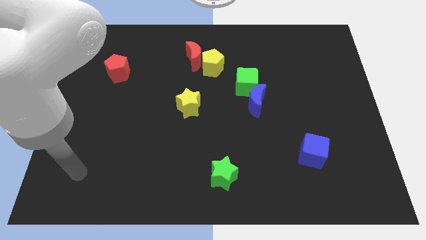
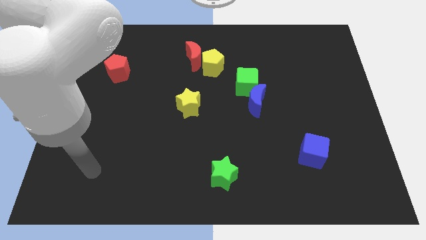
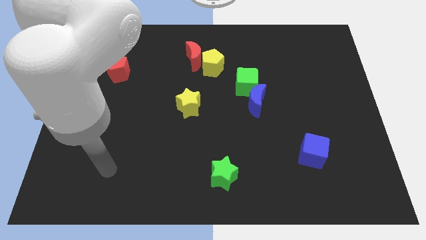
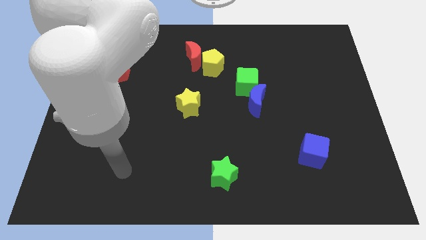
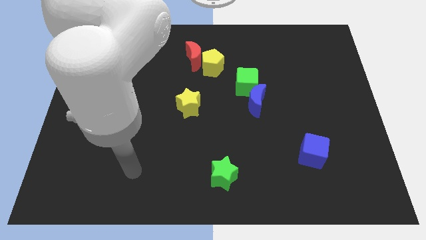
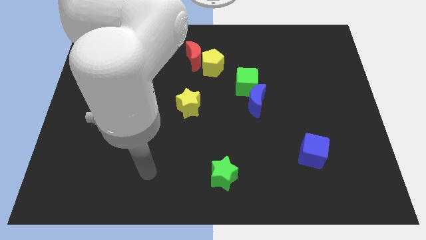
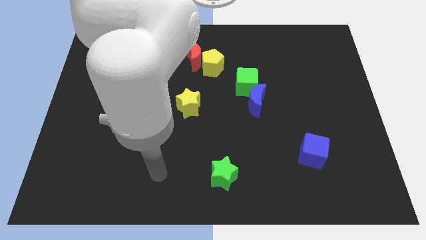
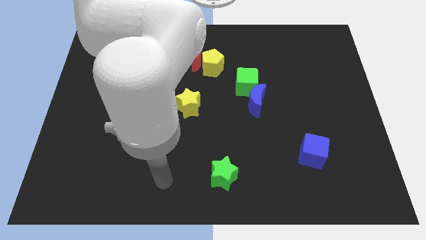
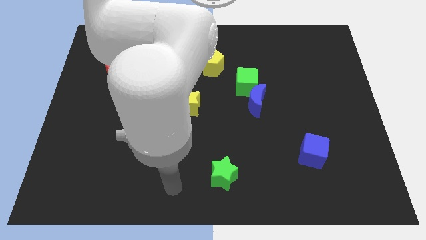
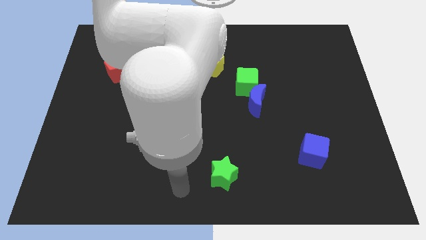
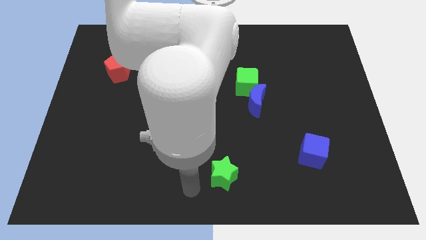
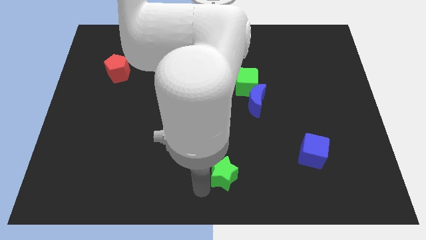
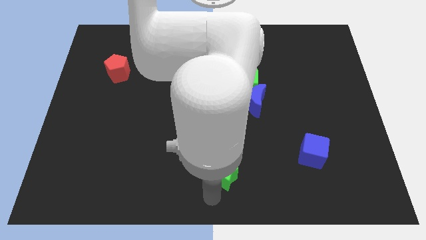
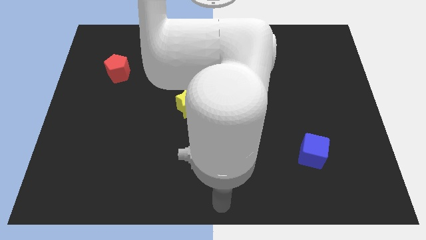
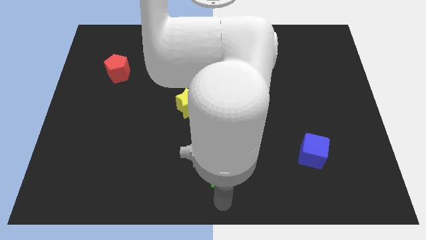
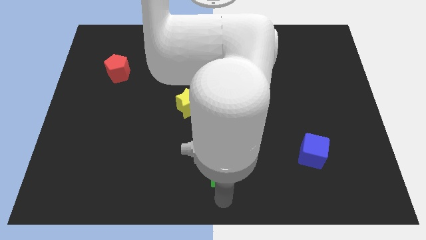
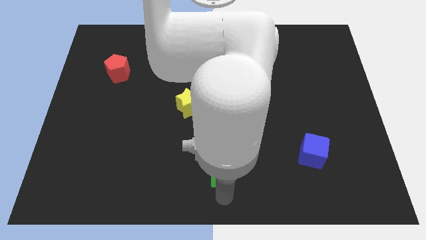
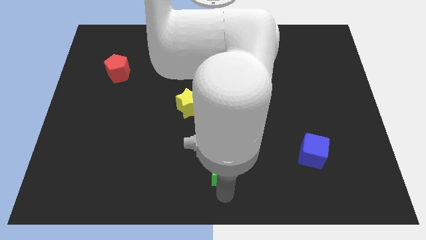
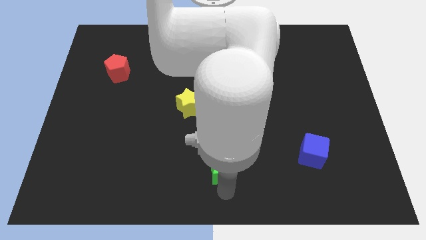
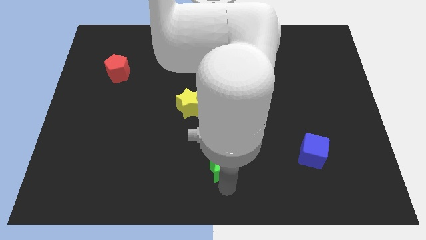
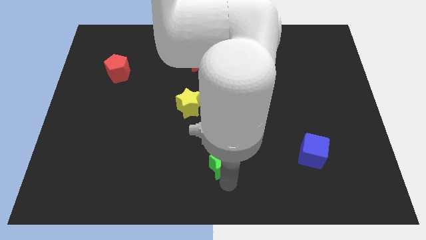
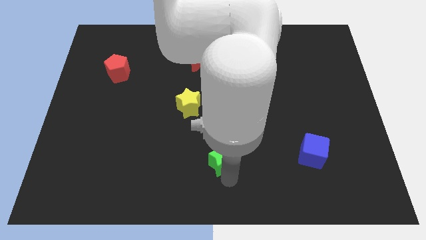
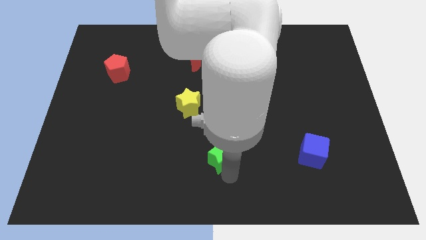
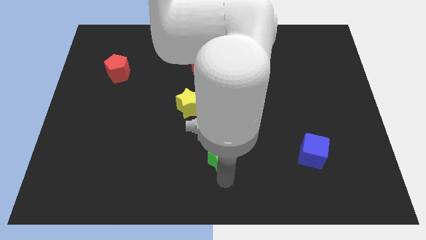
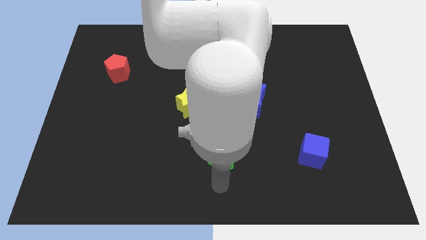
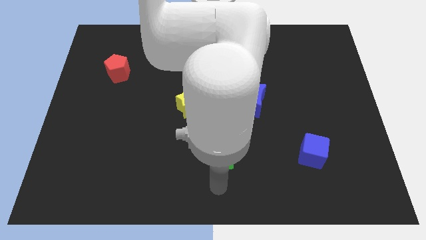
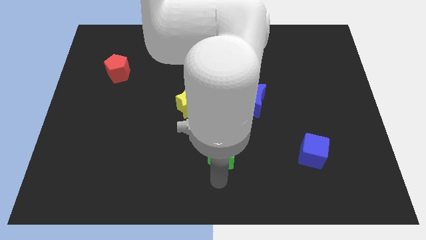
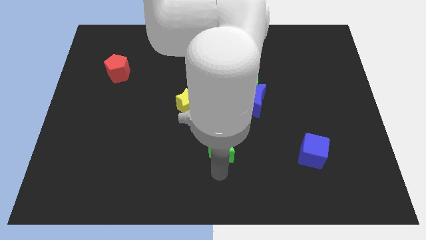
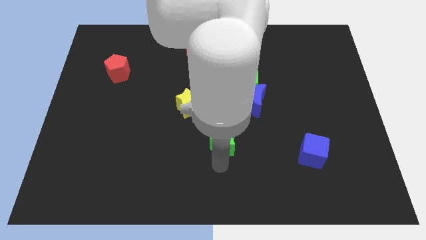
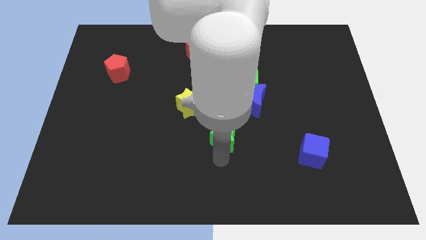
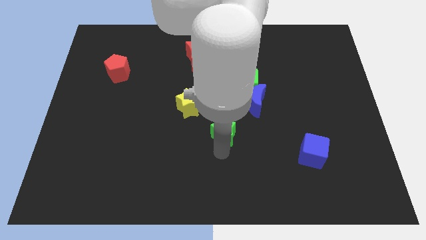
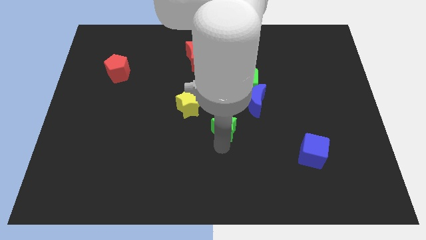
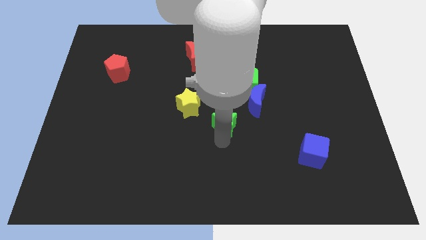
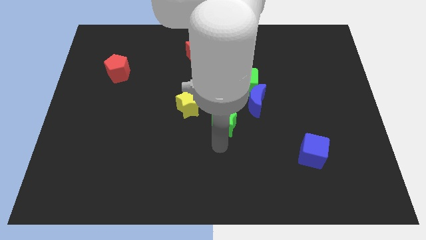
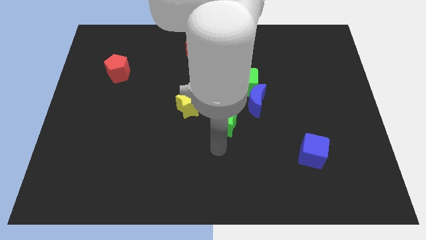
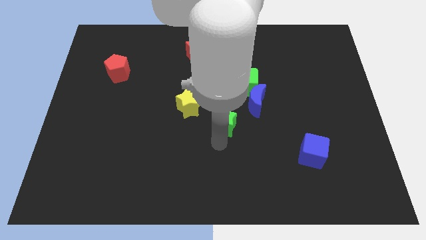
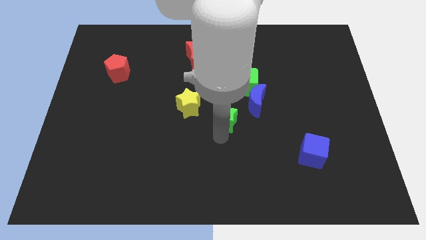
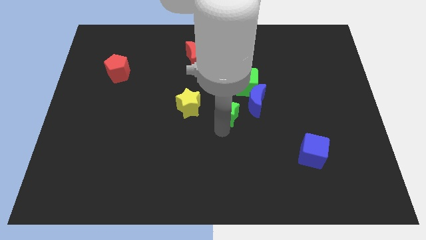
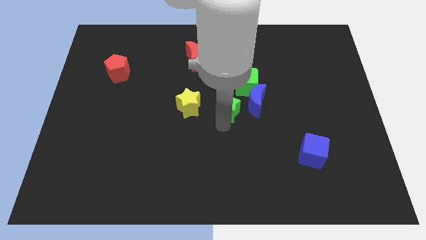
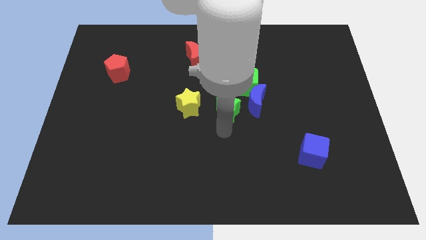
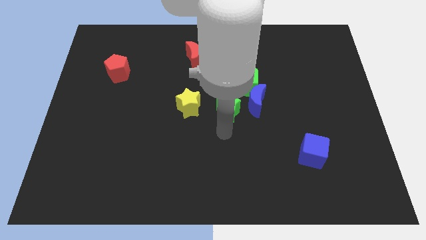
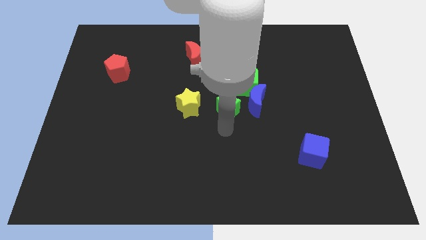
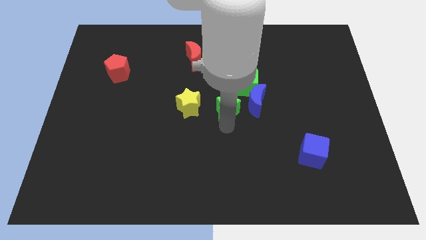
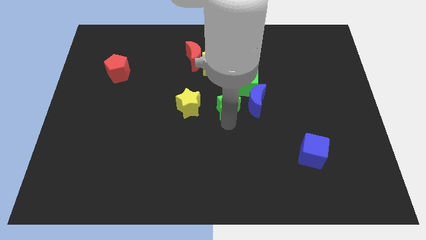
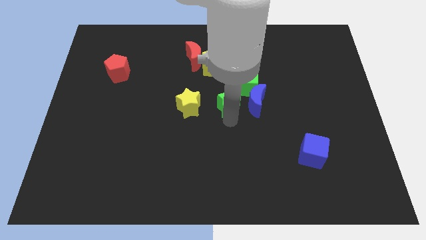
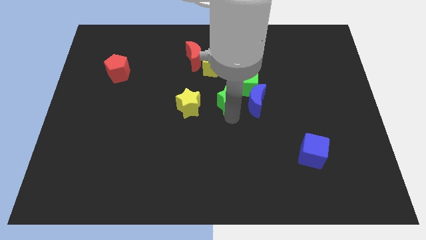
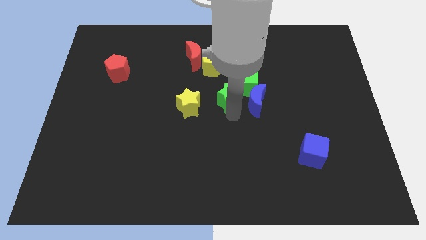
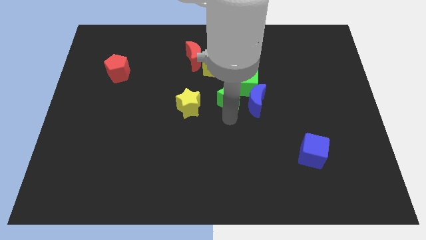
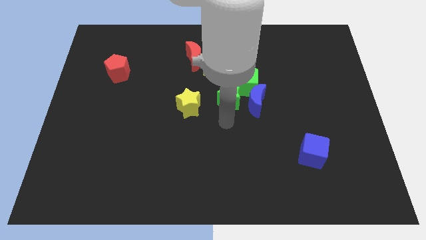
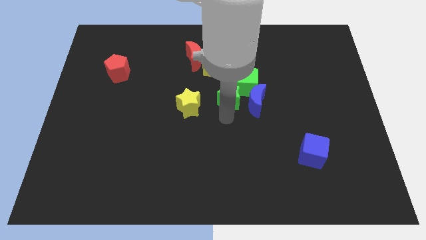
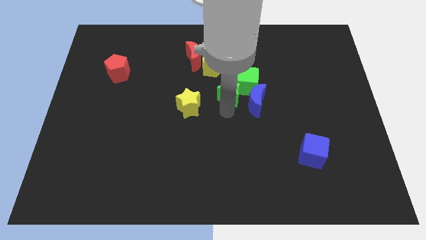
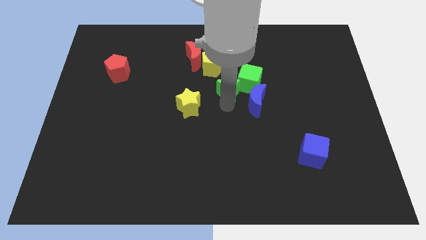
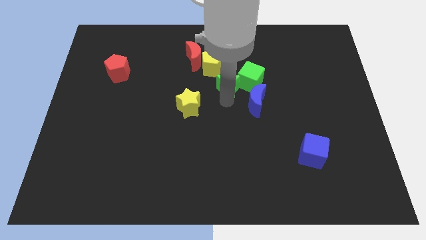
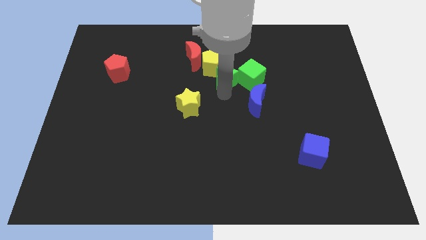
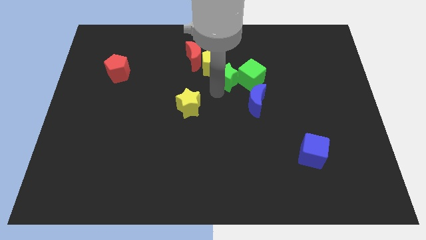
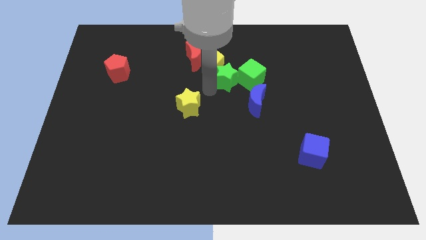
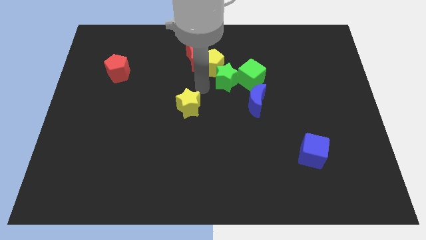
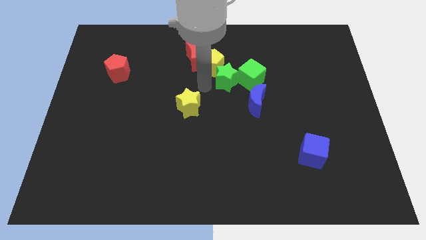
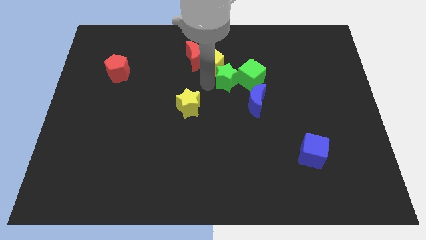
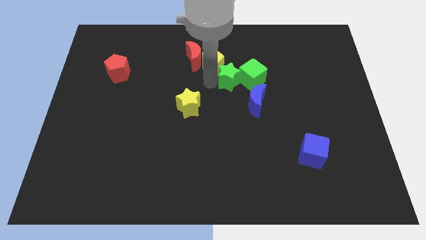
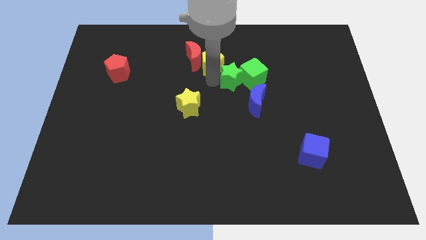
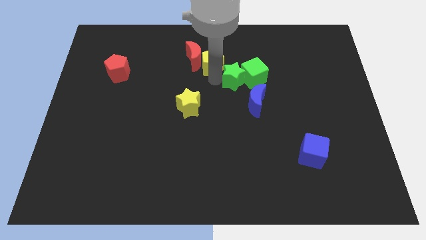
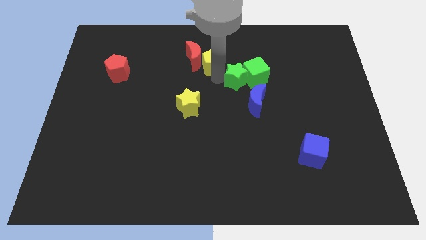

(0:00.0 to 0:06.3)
push the green star above the blue moon
